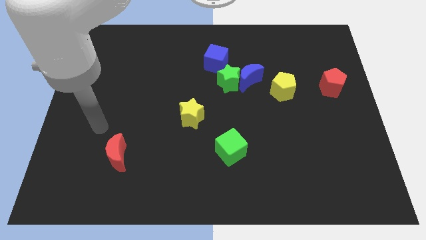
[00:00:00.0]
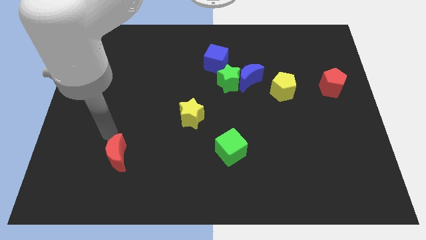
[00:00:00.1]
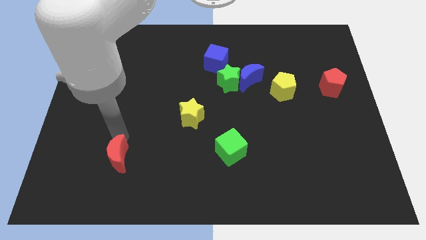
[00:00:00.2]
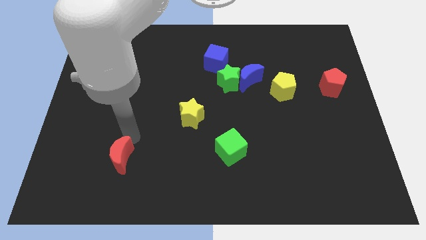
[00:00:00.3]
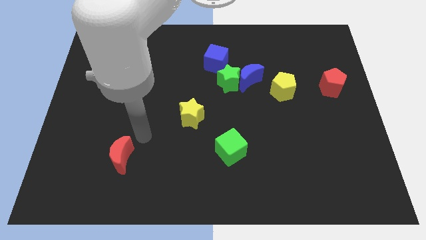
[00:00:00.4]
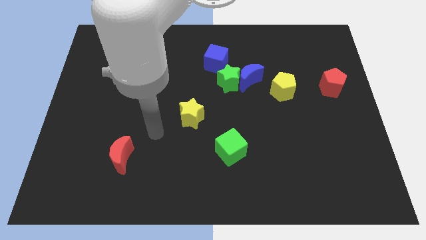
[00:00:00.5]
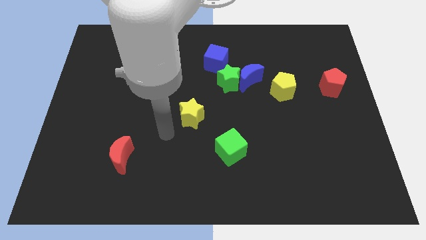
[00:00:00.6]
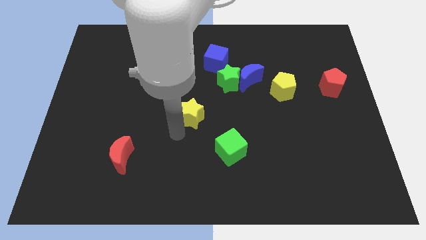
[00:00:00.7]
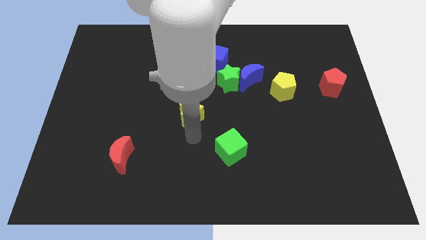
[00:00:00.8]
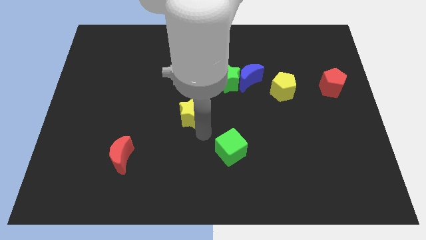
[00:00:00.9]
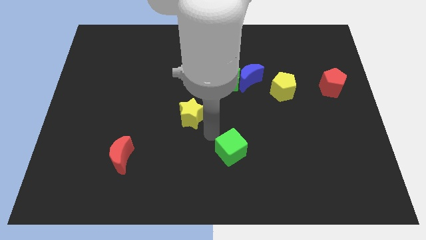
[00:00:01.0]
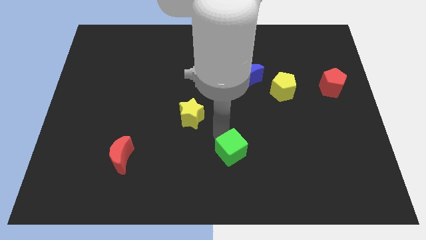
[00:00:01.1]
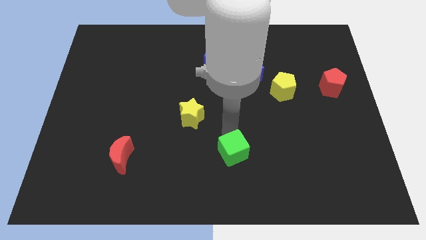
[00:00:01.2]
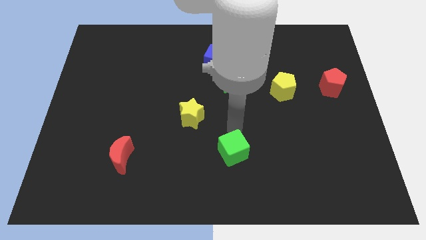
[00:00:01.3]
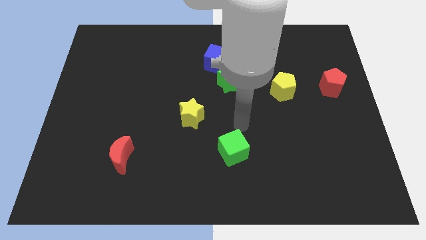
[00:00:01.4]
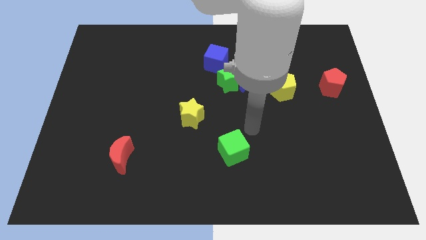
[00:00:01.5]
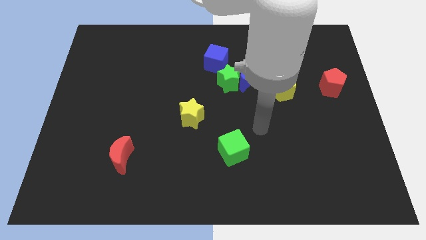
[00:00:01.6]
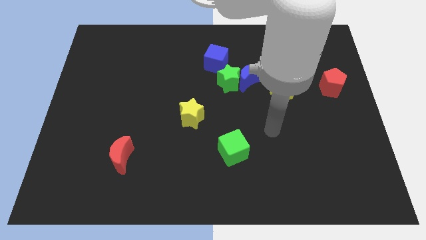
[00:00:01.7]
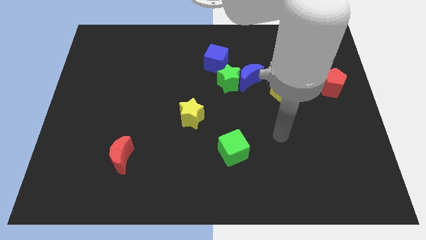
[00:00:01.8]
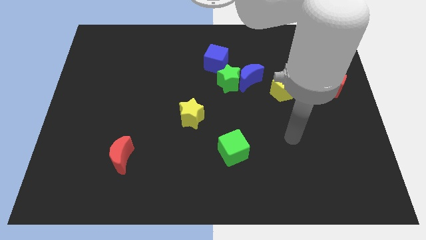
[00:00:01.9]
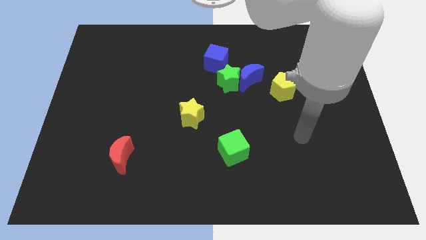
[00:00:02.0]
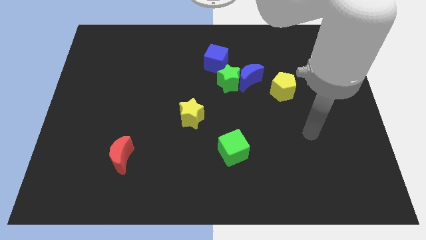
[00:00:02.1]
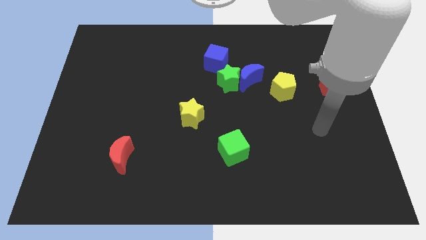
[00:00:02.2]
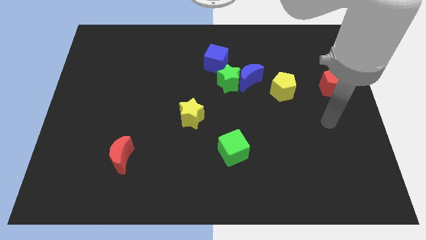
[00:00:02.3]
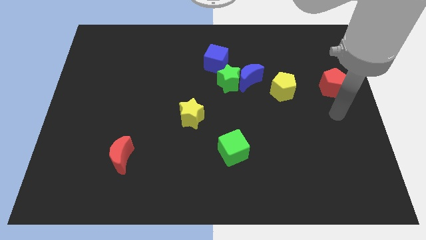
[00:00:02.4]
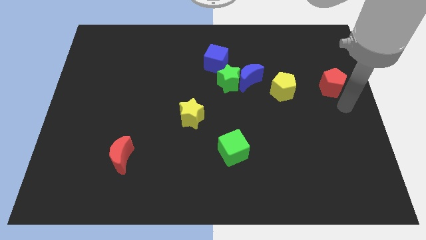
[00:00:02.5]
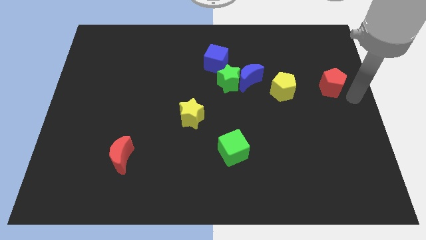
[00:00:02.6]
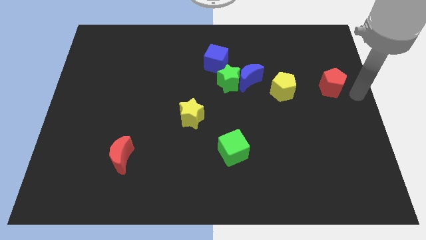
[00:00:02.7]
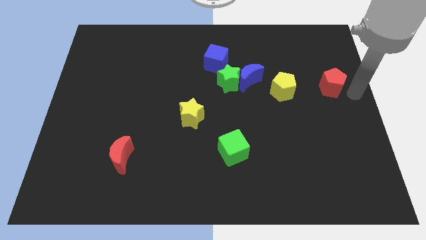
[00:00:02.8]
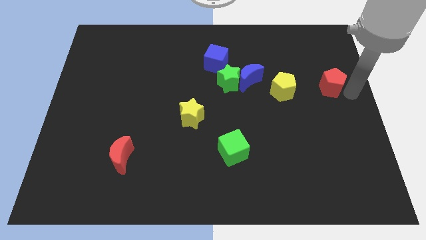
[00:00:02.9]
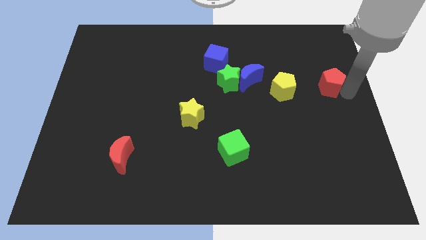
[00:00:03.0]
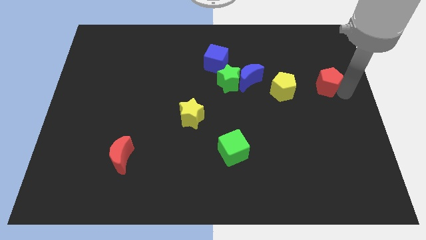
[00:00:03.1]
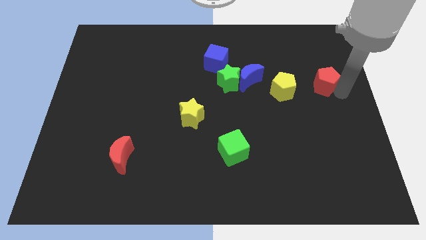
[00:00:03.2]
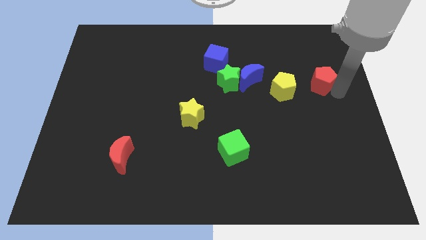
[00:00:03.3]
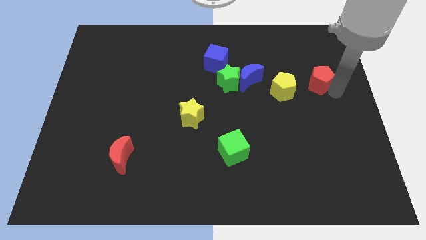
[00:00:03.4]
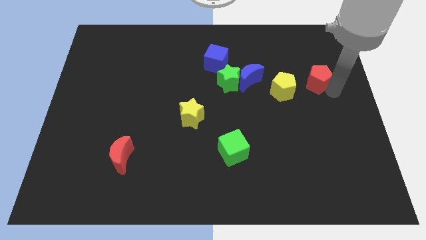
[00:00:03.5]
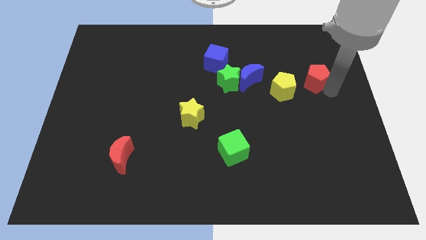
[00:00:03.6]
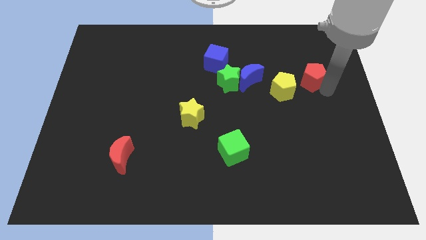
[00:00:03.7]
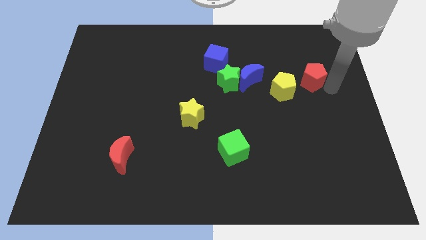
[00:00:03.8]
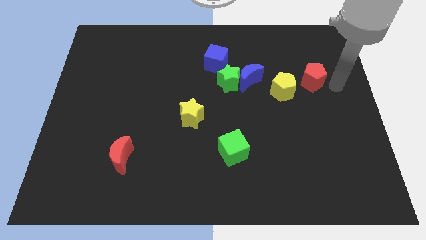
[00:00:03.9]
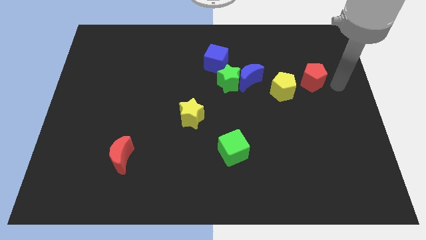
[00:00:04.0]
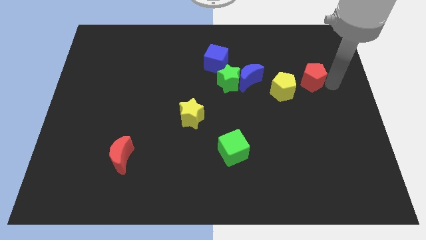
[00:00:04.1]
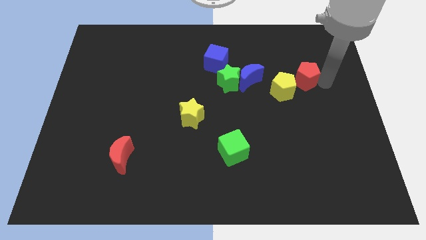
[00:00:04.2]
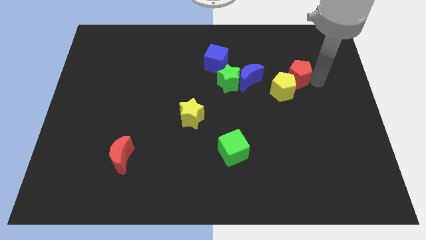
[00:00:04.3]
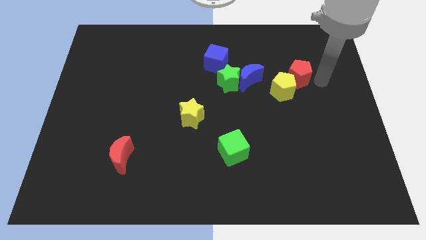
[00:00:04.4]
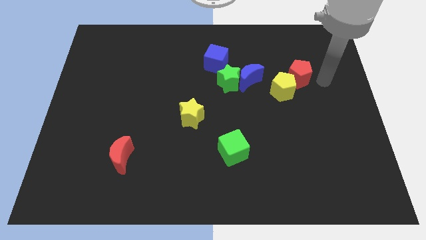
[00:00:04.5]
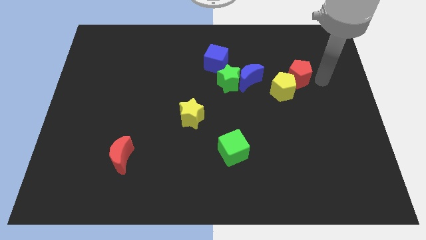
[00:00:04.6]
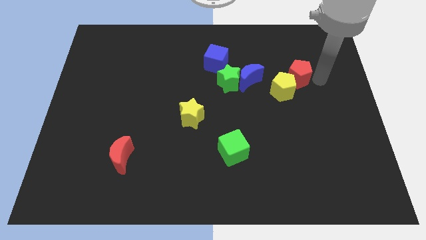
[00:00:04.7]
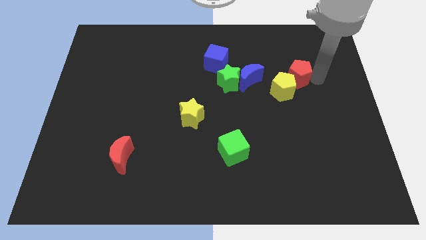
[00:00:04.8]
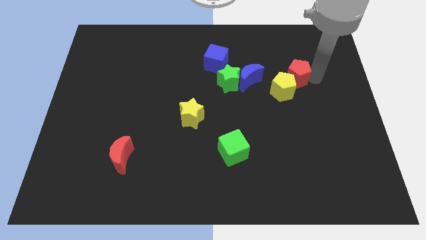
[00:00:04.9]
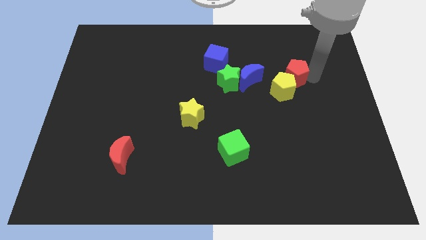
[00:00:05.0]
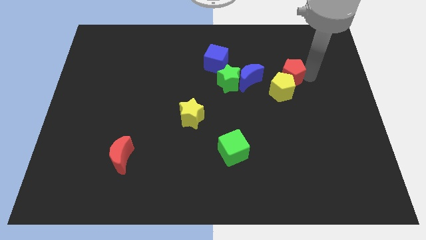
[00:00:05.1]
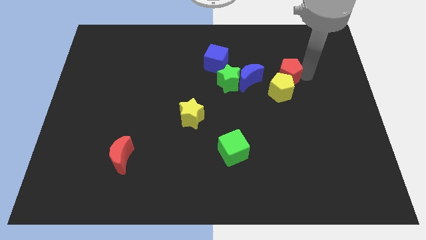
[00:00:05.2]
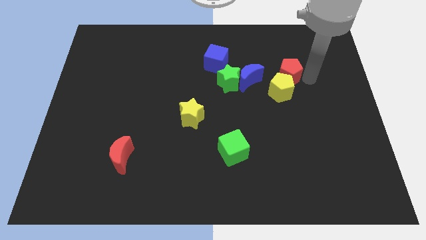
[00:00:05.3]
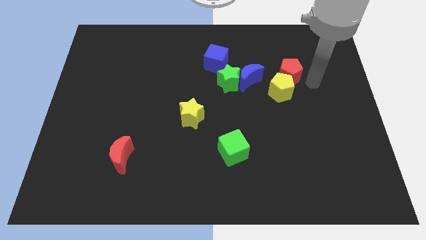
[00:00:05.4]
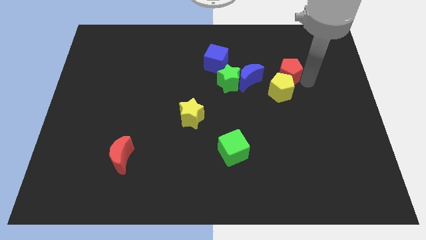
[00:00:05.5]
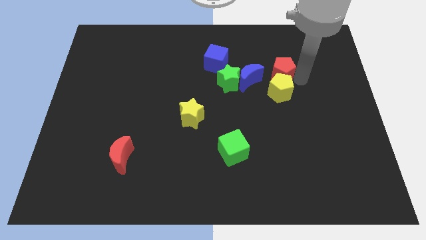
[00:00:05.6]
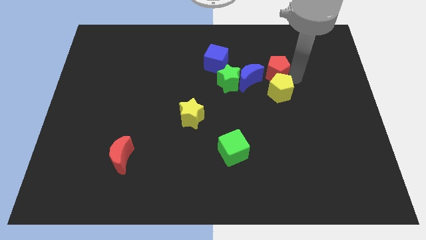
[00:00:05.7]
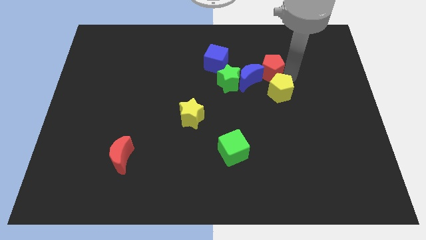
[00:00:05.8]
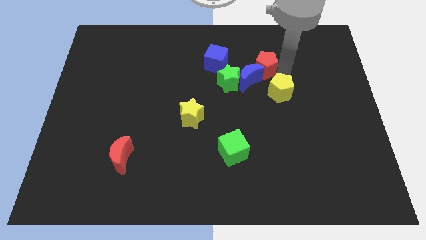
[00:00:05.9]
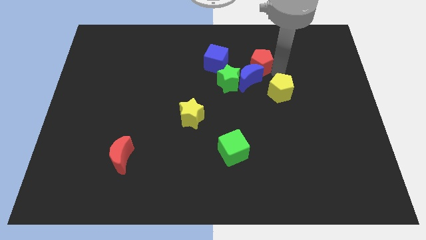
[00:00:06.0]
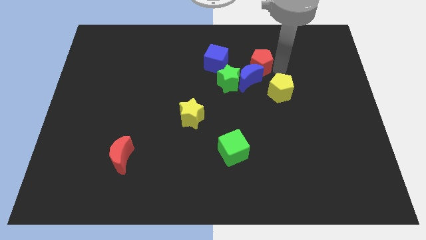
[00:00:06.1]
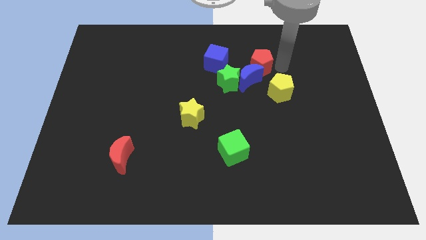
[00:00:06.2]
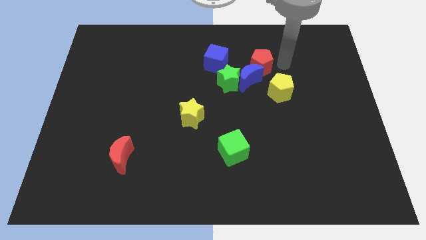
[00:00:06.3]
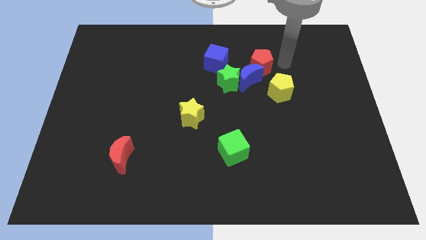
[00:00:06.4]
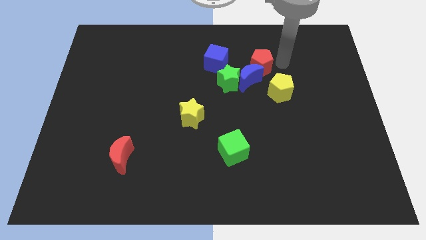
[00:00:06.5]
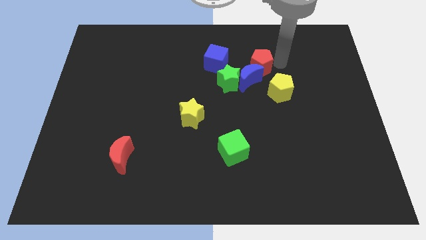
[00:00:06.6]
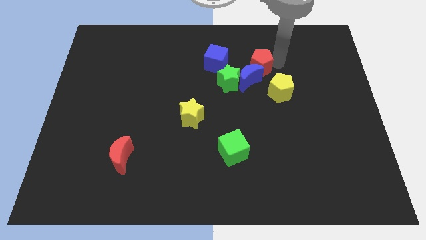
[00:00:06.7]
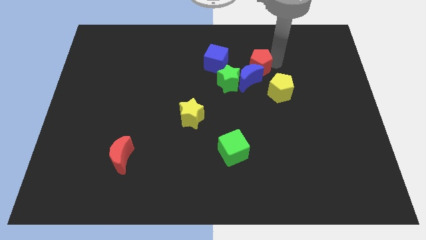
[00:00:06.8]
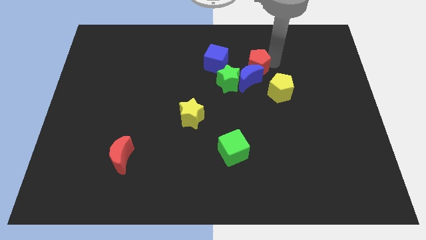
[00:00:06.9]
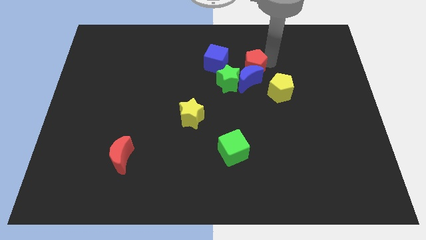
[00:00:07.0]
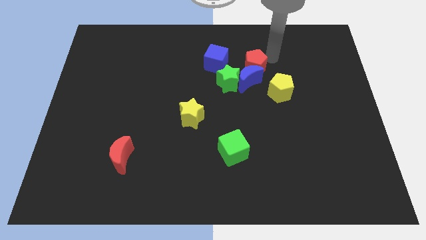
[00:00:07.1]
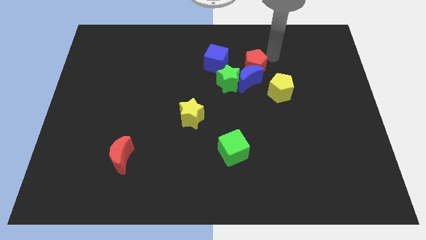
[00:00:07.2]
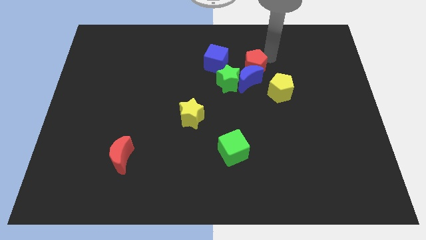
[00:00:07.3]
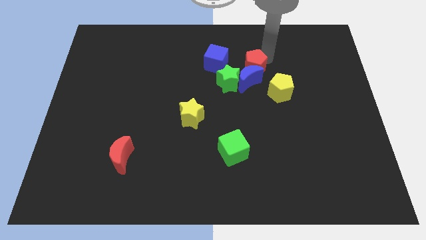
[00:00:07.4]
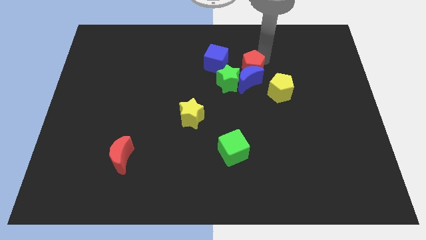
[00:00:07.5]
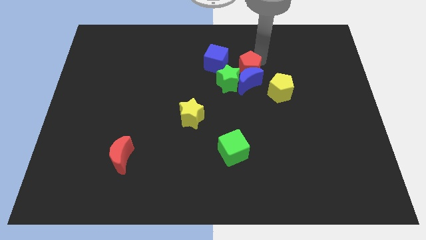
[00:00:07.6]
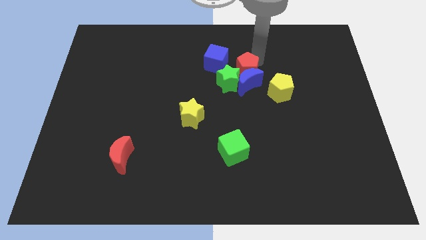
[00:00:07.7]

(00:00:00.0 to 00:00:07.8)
slide the red pentagon towards the green star
